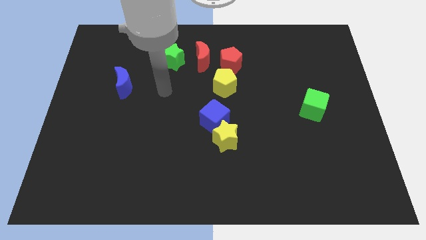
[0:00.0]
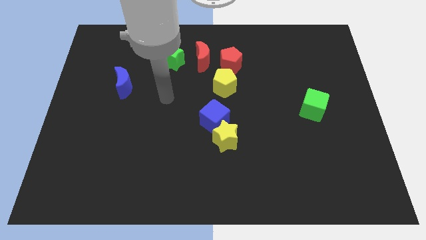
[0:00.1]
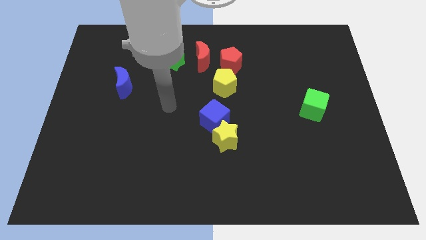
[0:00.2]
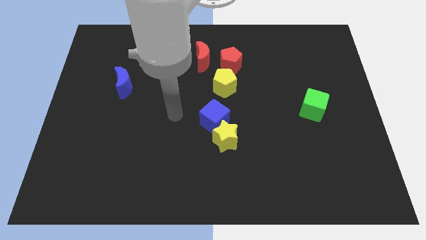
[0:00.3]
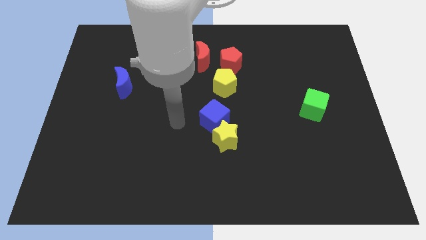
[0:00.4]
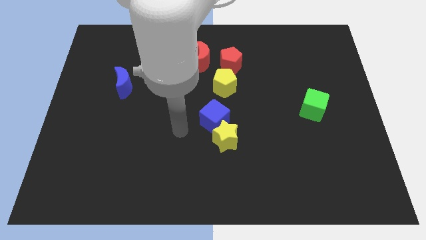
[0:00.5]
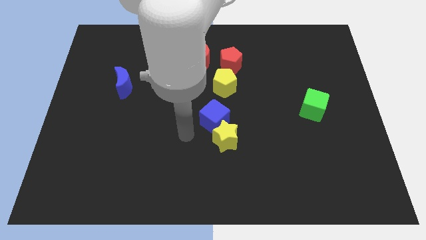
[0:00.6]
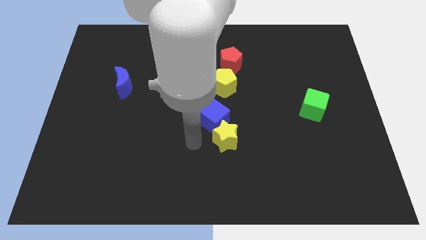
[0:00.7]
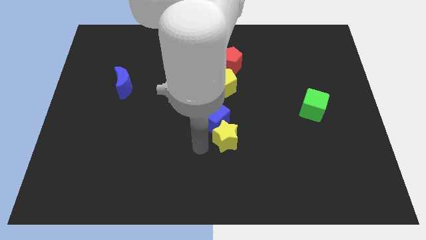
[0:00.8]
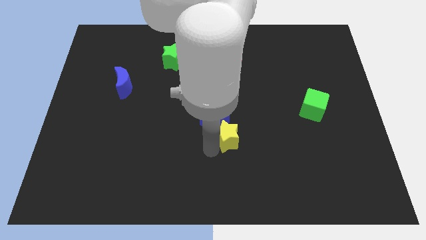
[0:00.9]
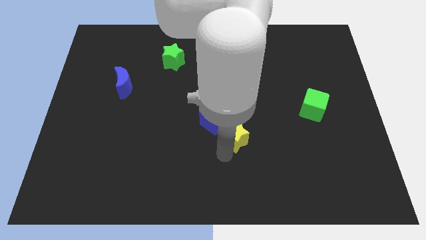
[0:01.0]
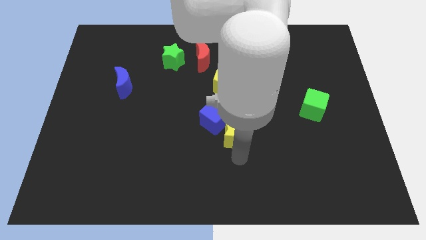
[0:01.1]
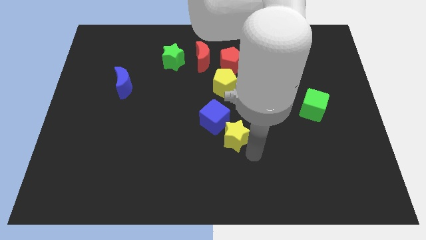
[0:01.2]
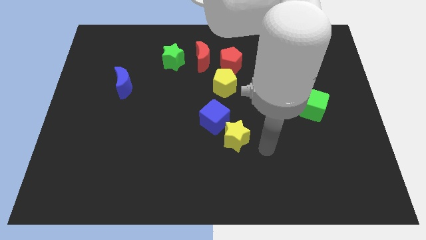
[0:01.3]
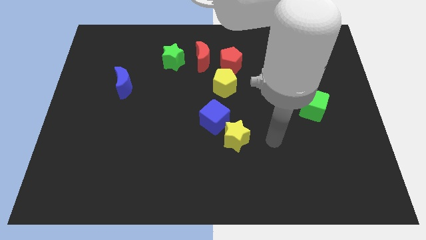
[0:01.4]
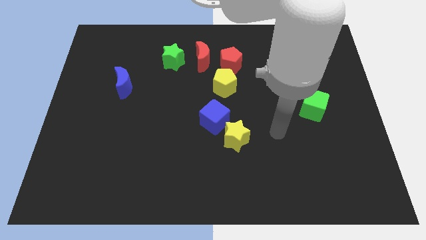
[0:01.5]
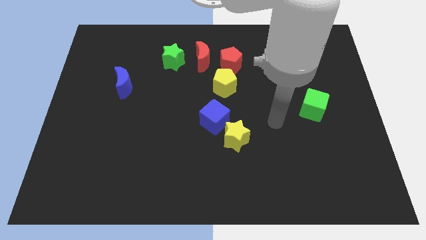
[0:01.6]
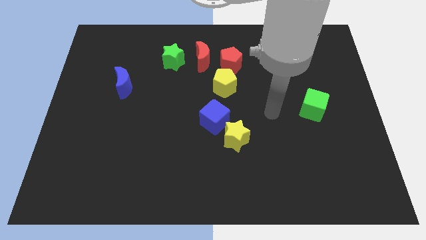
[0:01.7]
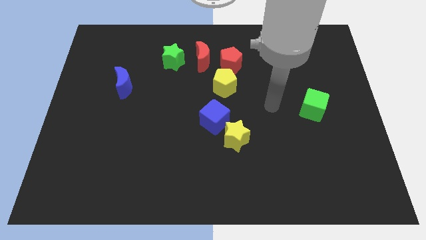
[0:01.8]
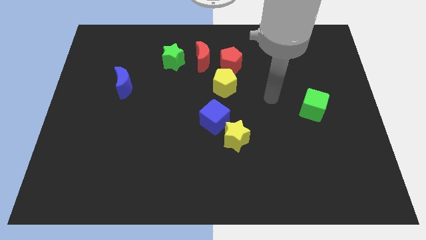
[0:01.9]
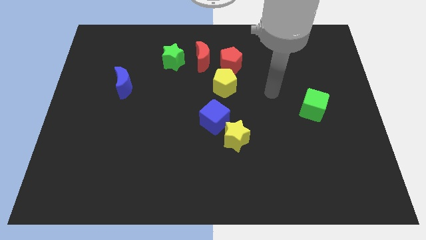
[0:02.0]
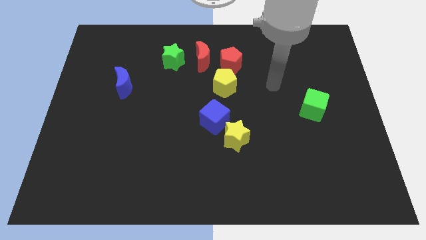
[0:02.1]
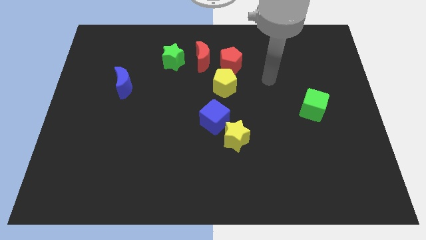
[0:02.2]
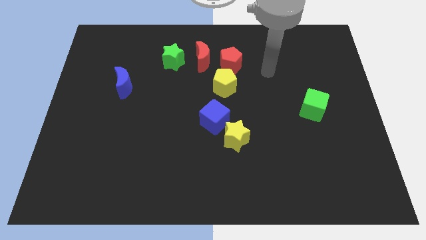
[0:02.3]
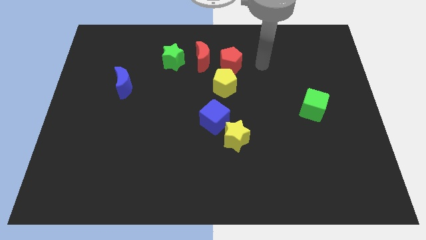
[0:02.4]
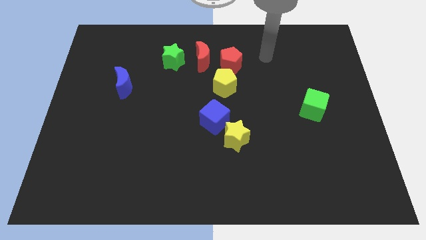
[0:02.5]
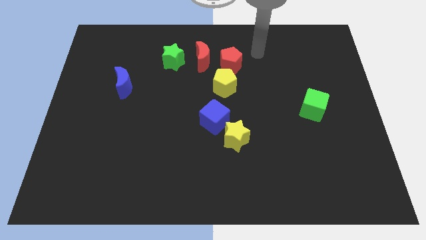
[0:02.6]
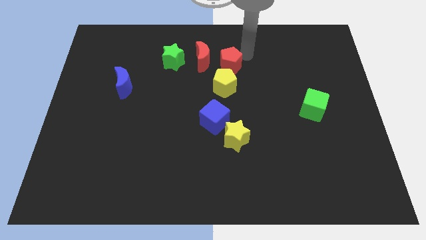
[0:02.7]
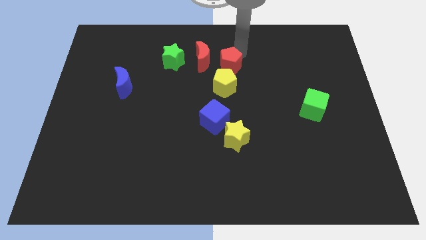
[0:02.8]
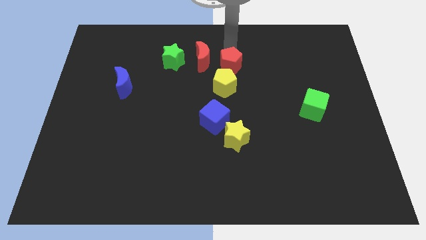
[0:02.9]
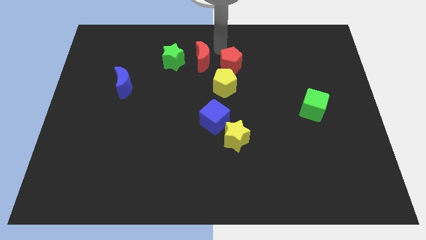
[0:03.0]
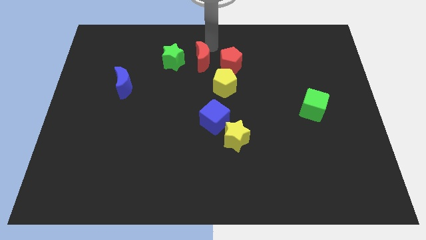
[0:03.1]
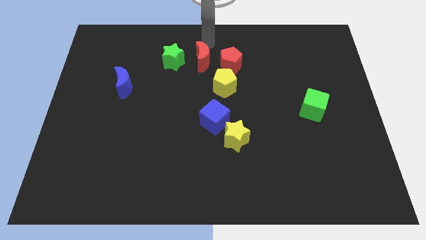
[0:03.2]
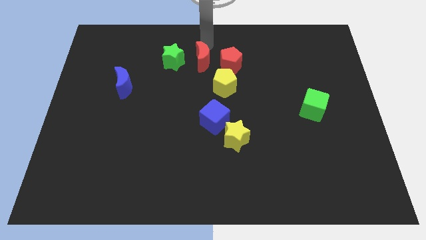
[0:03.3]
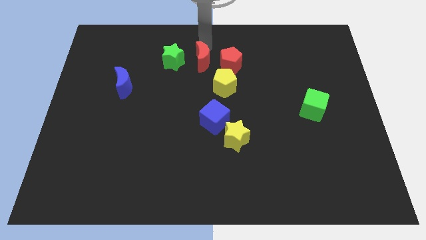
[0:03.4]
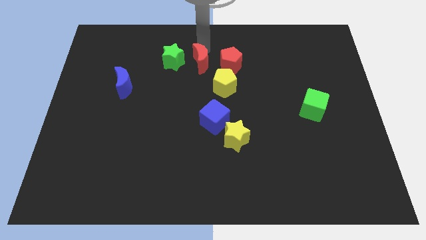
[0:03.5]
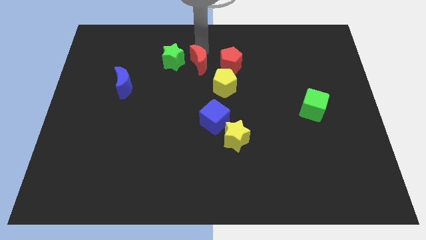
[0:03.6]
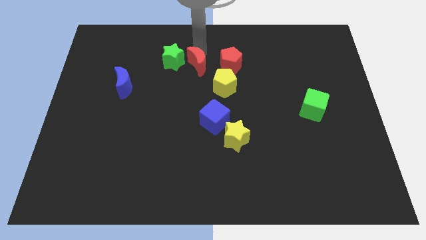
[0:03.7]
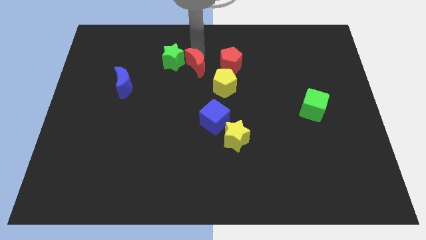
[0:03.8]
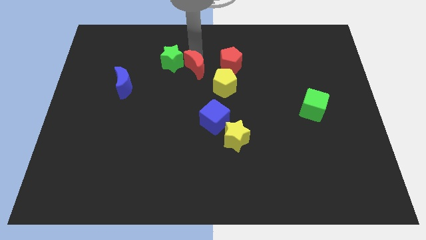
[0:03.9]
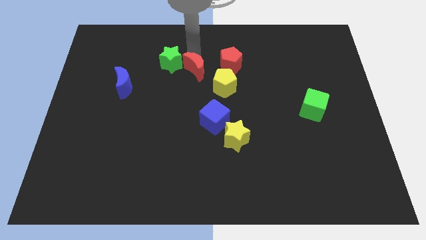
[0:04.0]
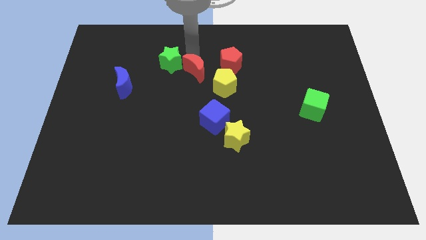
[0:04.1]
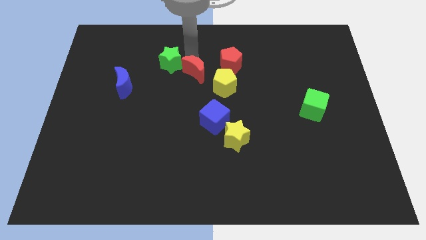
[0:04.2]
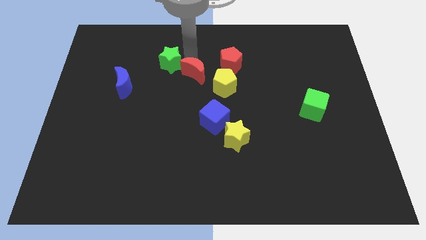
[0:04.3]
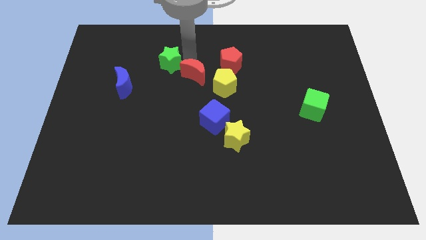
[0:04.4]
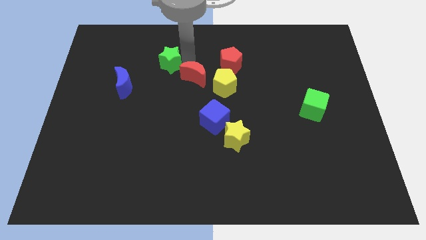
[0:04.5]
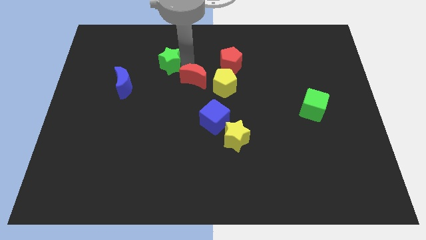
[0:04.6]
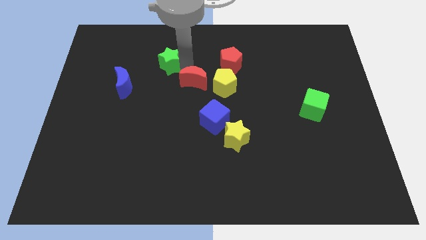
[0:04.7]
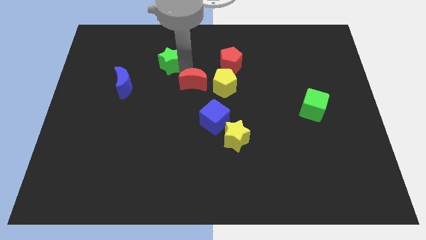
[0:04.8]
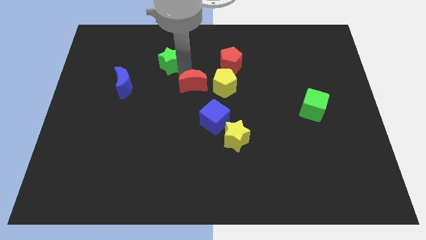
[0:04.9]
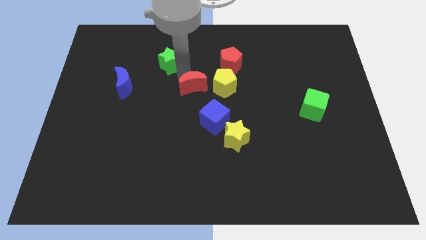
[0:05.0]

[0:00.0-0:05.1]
move the red moon to the top left side of the blue cube

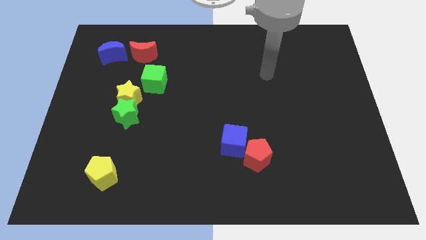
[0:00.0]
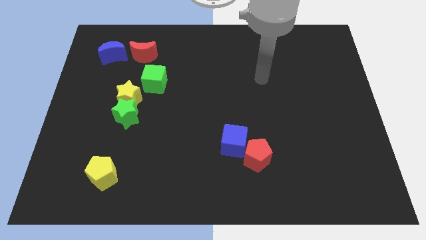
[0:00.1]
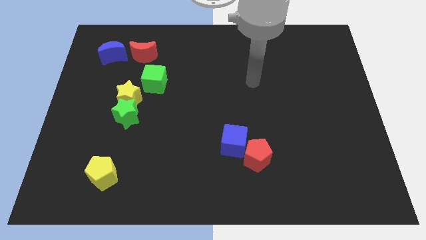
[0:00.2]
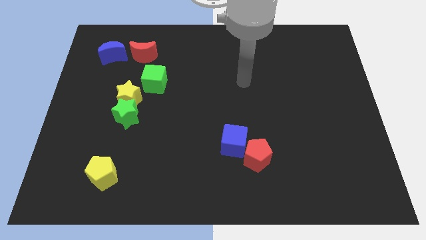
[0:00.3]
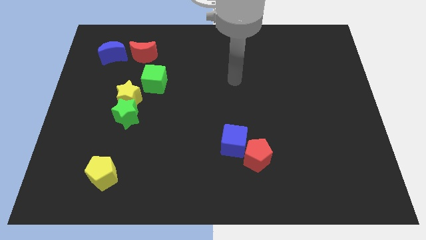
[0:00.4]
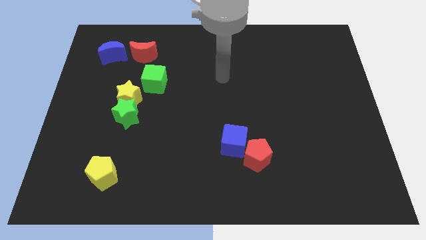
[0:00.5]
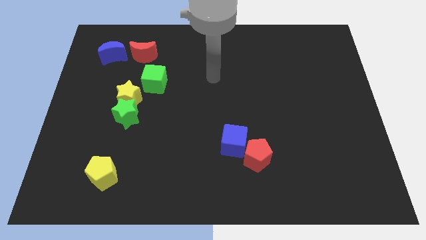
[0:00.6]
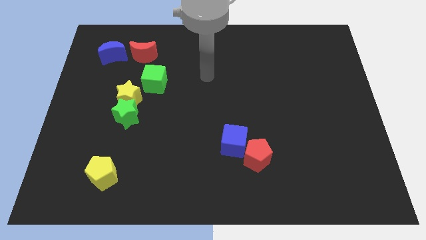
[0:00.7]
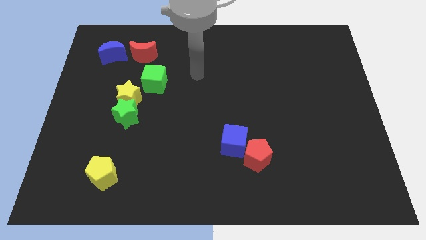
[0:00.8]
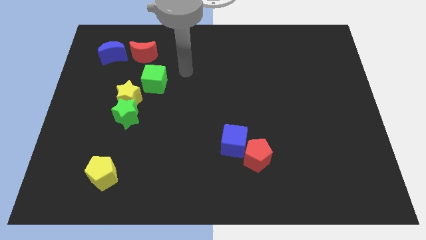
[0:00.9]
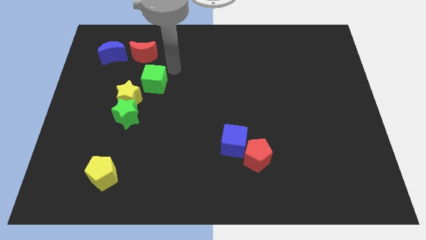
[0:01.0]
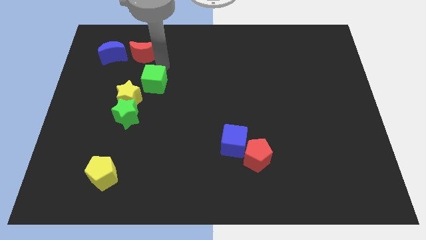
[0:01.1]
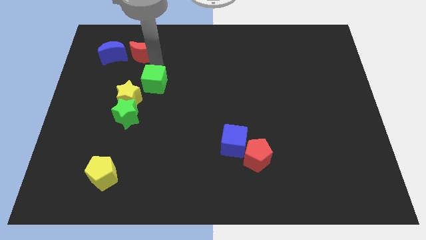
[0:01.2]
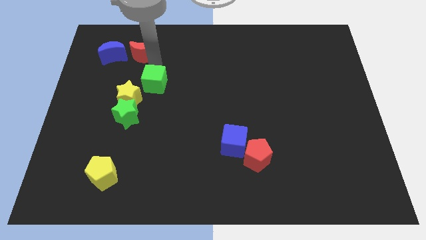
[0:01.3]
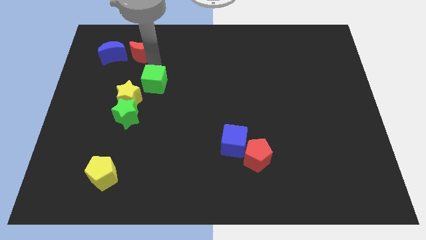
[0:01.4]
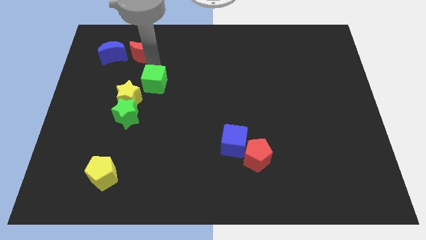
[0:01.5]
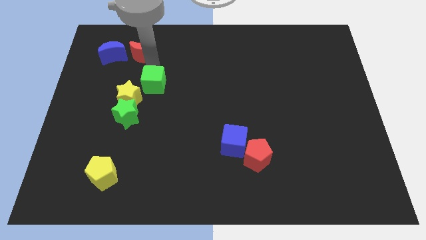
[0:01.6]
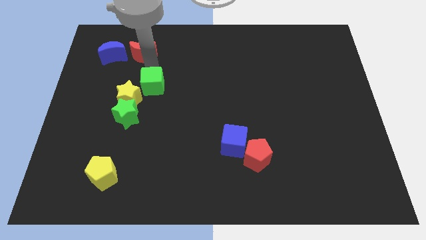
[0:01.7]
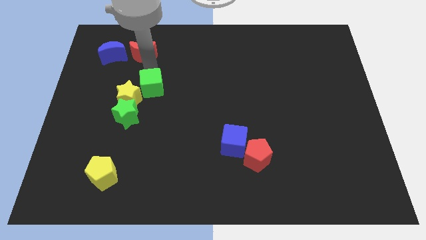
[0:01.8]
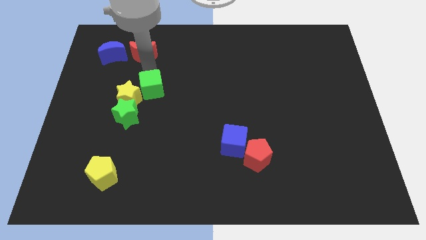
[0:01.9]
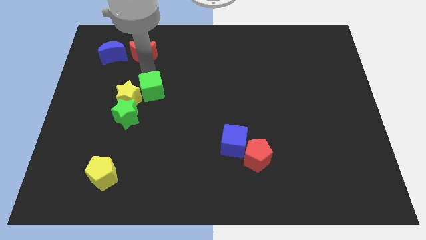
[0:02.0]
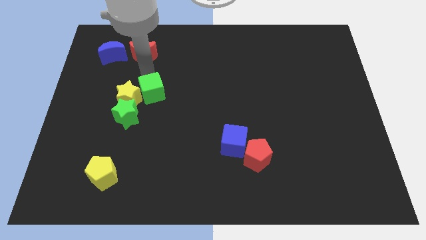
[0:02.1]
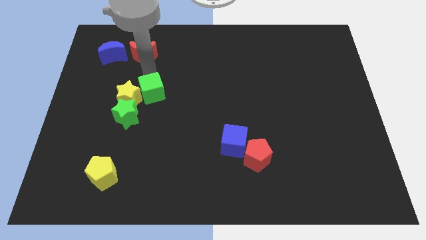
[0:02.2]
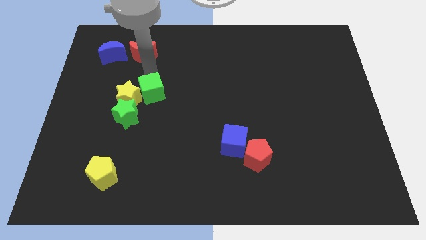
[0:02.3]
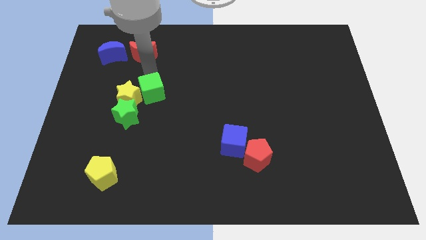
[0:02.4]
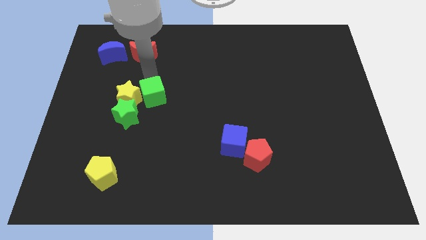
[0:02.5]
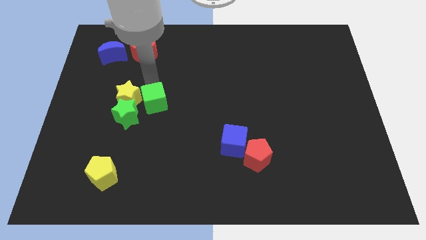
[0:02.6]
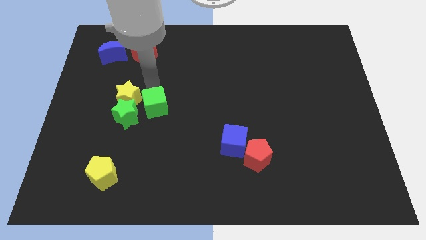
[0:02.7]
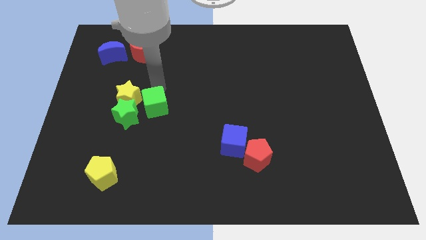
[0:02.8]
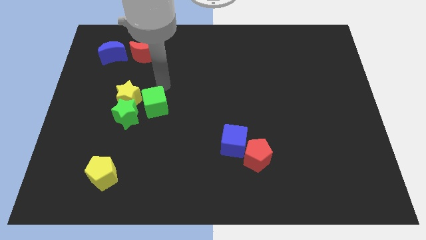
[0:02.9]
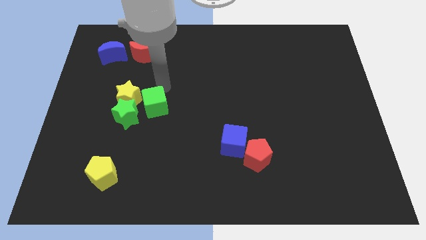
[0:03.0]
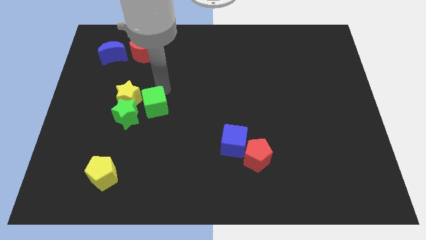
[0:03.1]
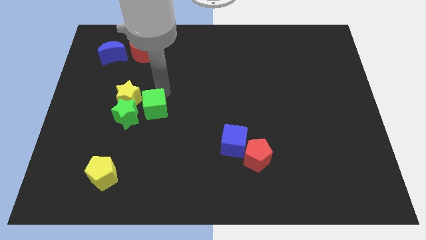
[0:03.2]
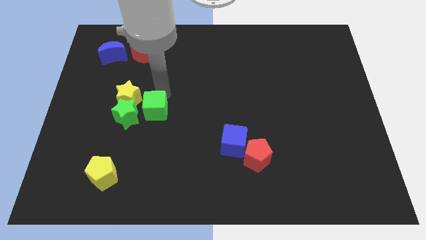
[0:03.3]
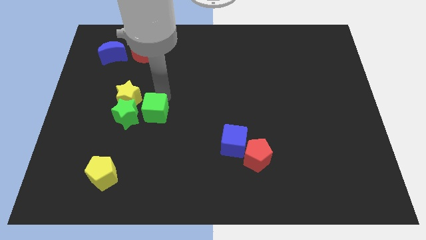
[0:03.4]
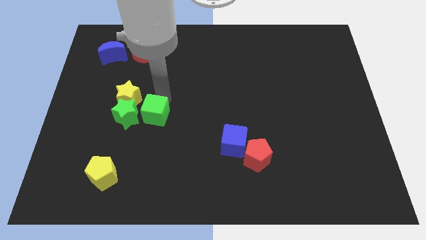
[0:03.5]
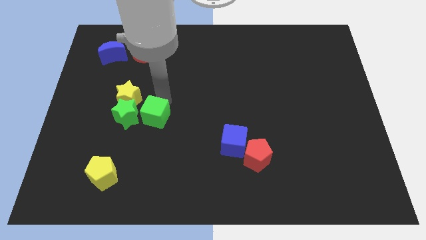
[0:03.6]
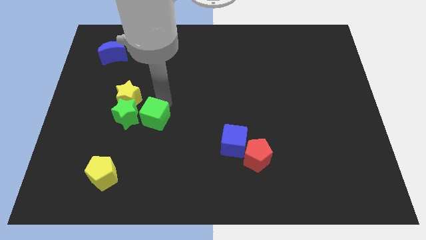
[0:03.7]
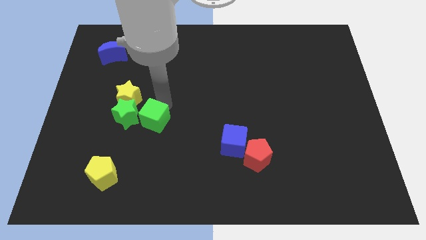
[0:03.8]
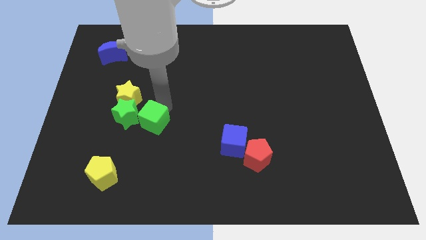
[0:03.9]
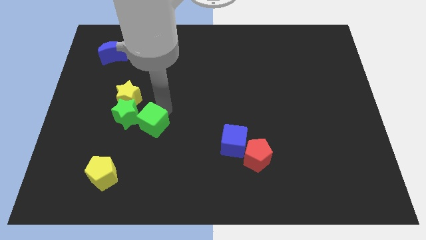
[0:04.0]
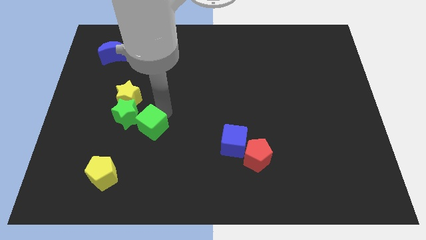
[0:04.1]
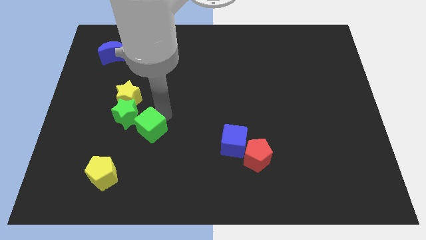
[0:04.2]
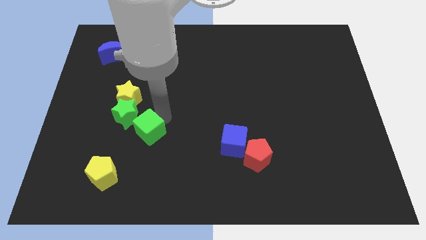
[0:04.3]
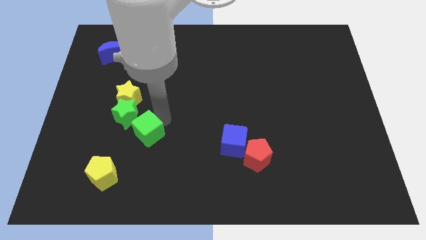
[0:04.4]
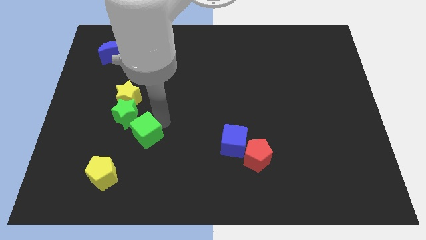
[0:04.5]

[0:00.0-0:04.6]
slide the green cube below the green star
